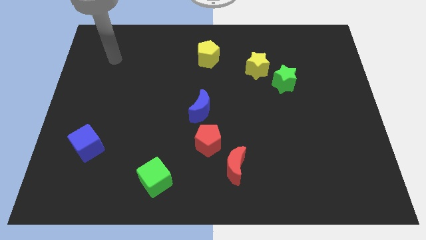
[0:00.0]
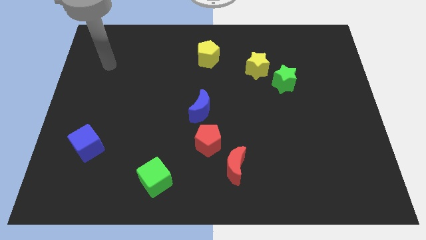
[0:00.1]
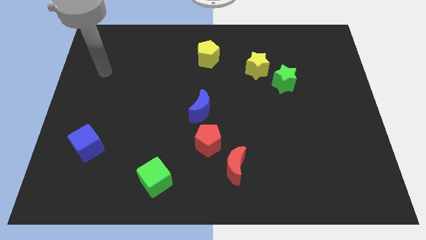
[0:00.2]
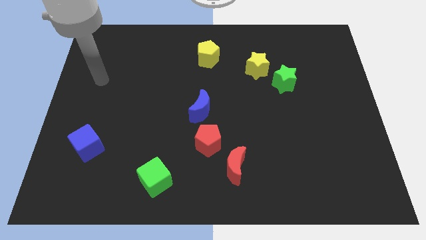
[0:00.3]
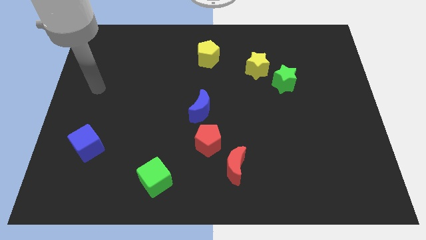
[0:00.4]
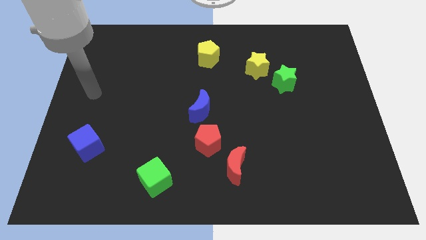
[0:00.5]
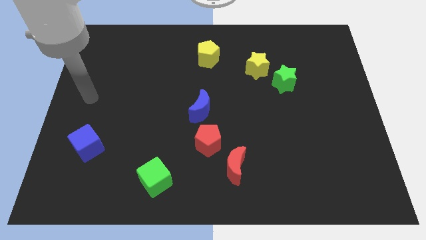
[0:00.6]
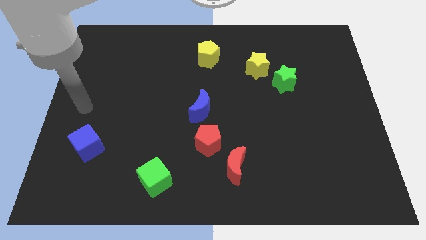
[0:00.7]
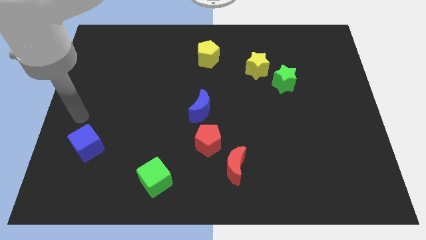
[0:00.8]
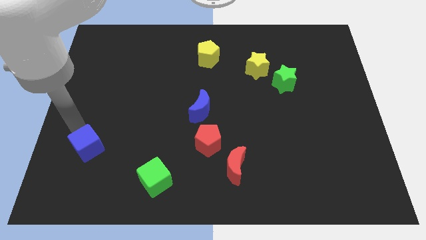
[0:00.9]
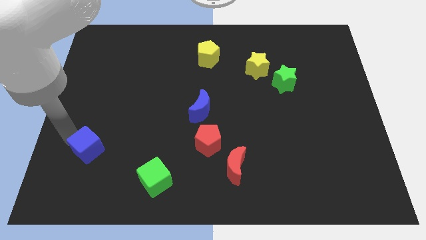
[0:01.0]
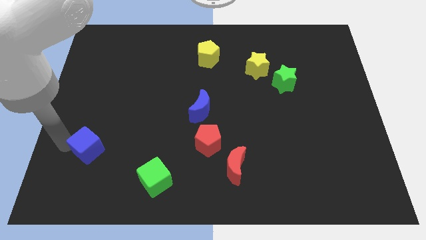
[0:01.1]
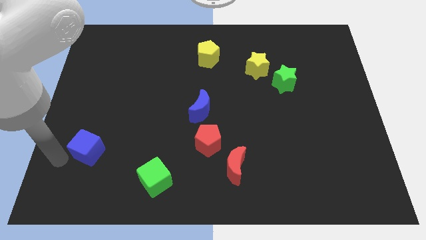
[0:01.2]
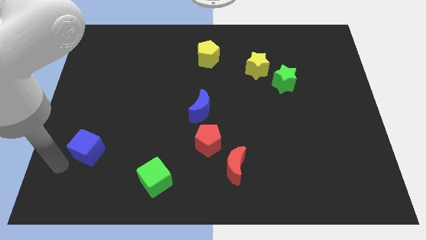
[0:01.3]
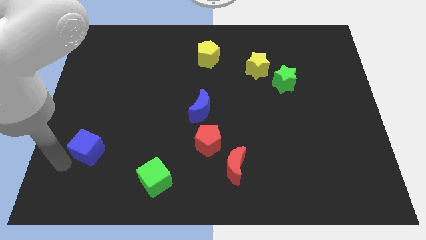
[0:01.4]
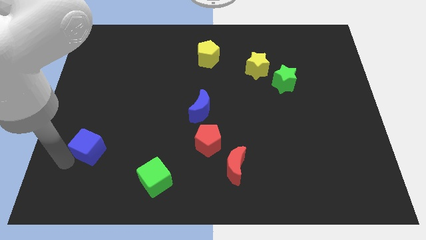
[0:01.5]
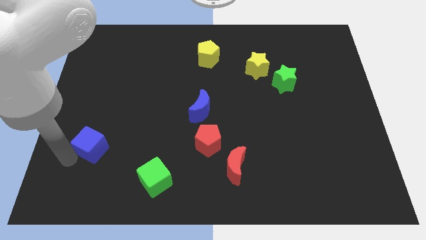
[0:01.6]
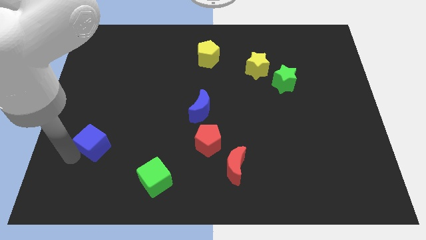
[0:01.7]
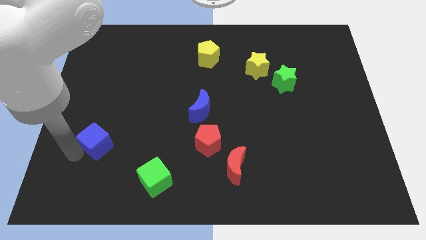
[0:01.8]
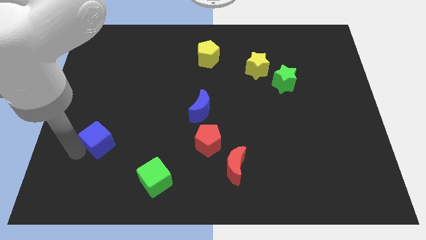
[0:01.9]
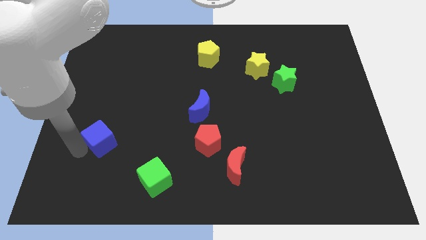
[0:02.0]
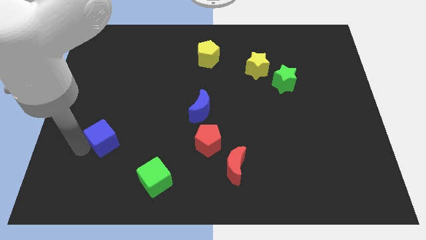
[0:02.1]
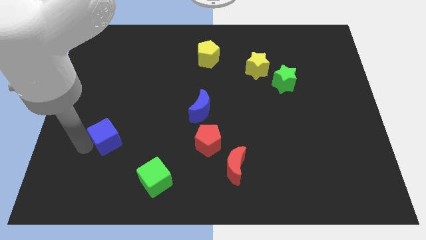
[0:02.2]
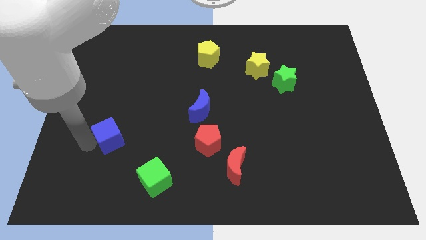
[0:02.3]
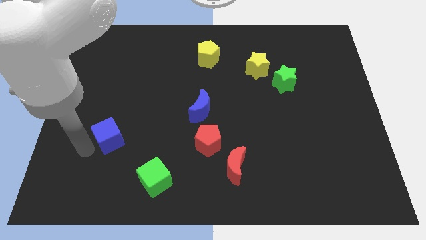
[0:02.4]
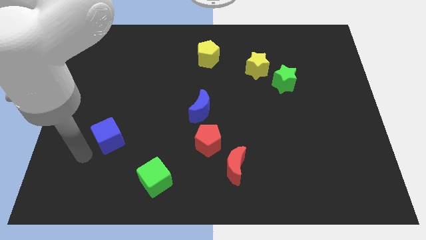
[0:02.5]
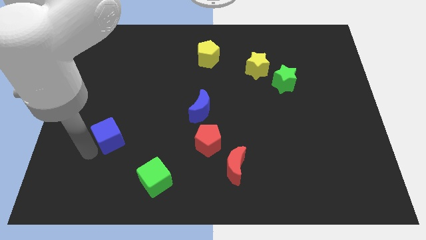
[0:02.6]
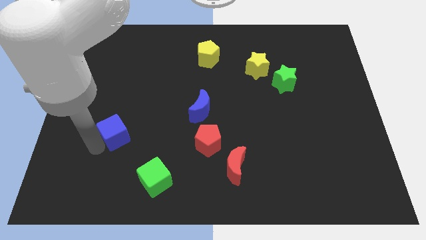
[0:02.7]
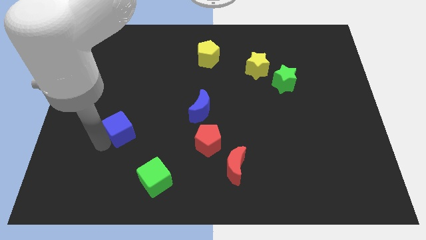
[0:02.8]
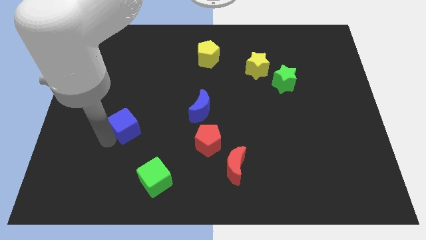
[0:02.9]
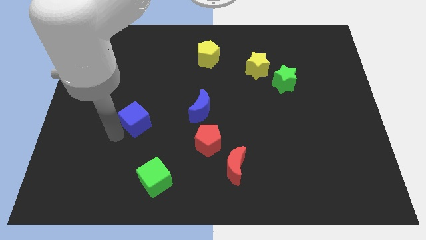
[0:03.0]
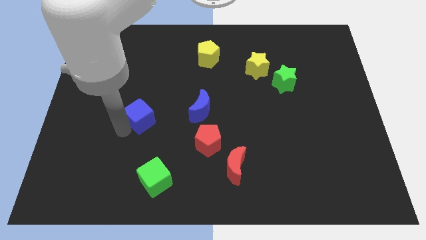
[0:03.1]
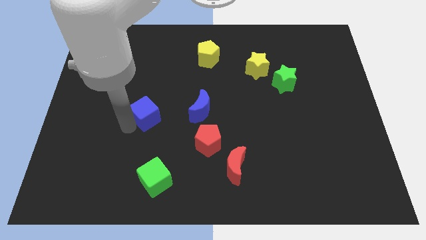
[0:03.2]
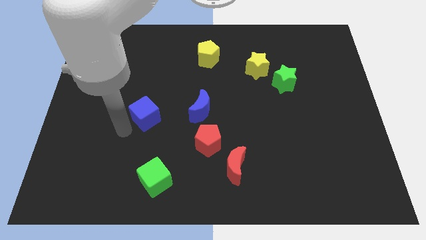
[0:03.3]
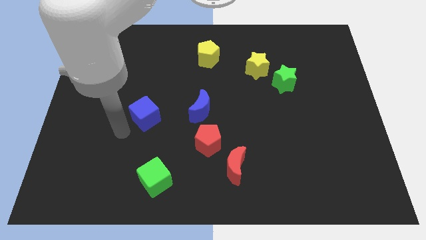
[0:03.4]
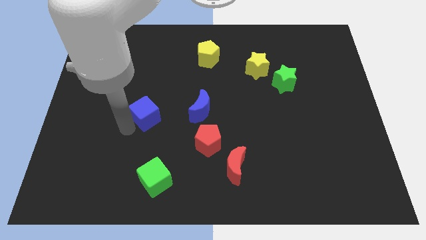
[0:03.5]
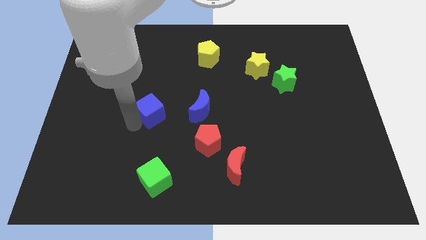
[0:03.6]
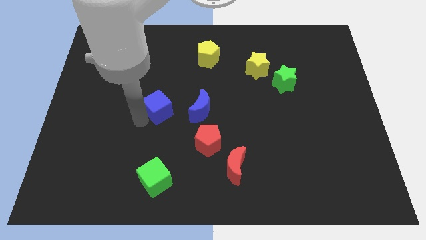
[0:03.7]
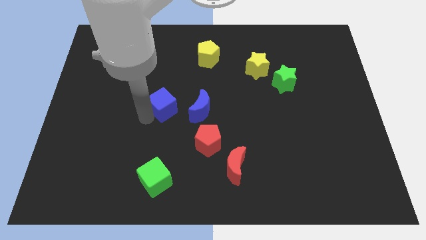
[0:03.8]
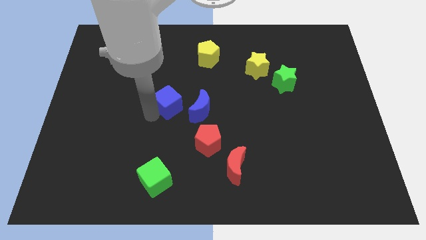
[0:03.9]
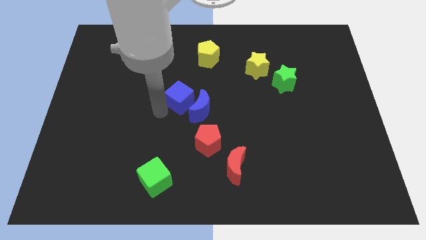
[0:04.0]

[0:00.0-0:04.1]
move the blue cube upwards and right diagonally

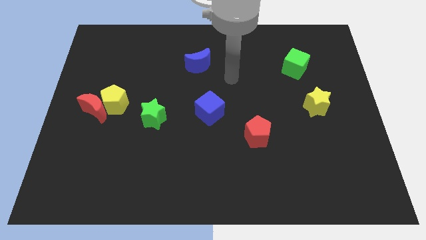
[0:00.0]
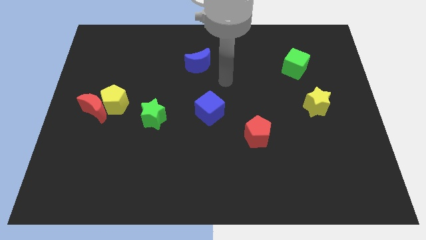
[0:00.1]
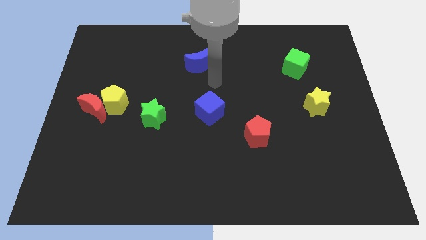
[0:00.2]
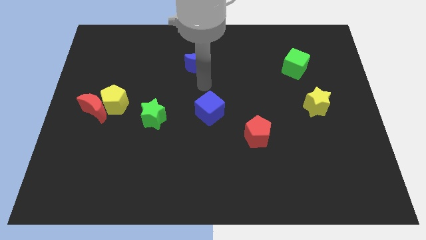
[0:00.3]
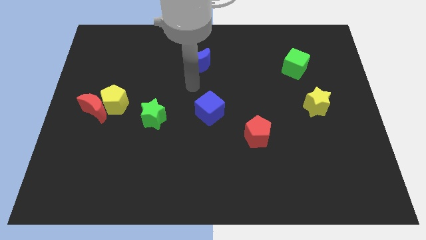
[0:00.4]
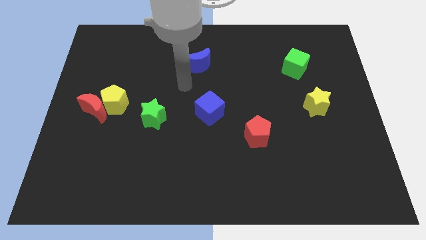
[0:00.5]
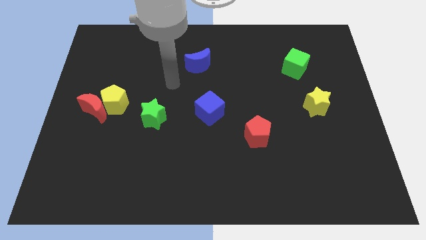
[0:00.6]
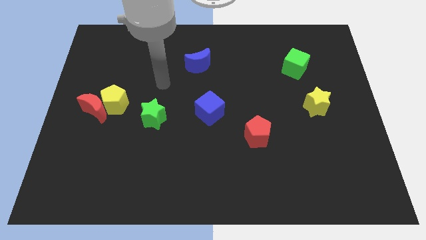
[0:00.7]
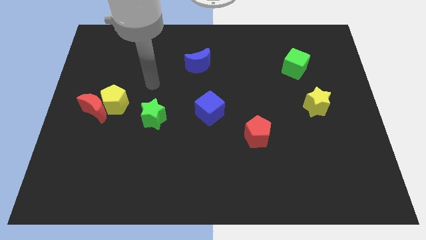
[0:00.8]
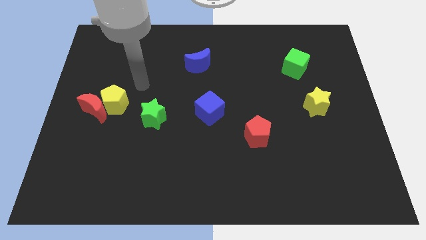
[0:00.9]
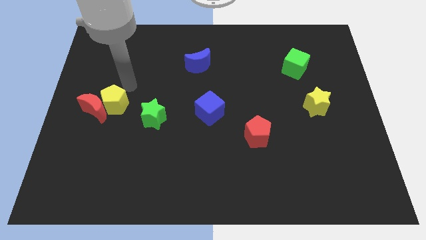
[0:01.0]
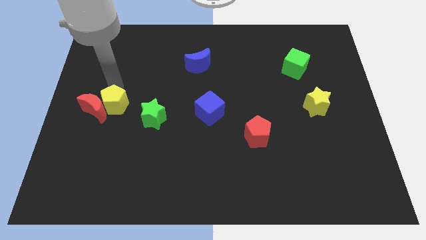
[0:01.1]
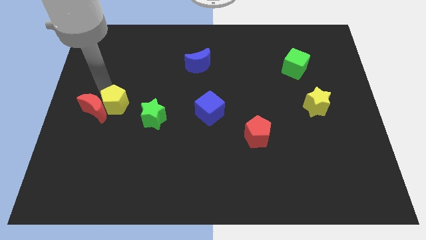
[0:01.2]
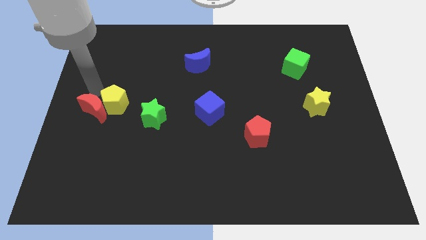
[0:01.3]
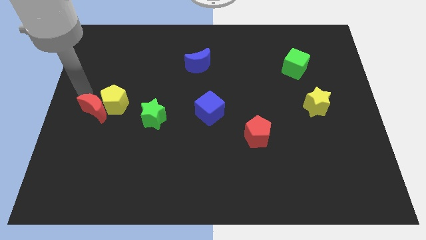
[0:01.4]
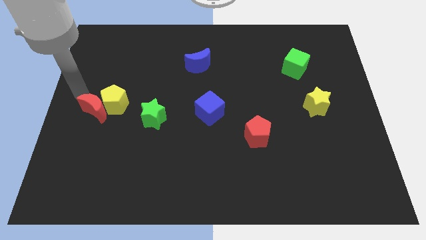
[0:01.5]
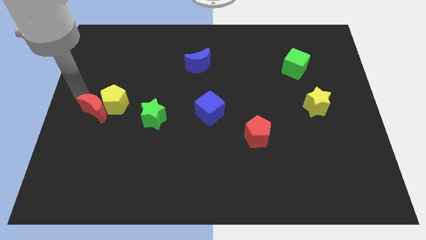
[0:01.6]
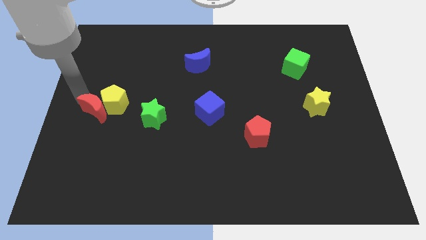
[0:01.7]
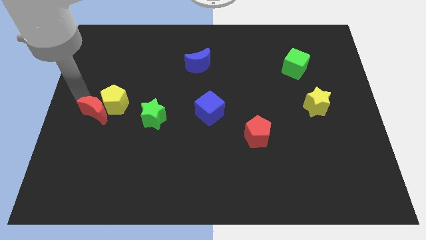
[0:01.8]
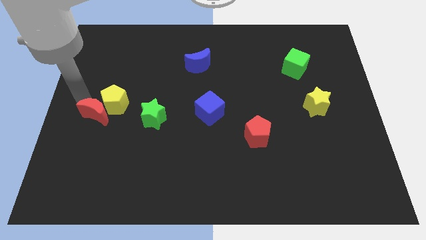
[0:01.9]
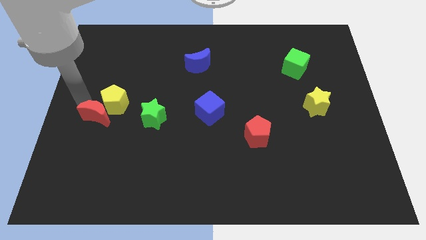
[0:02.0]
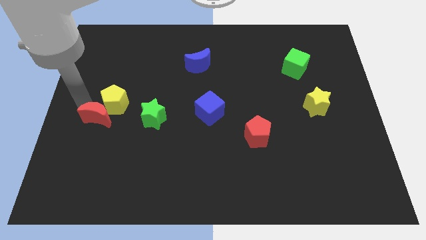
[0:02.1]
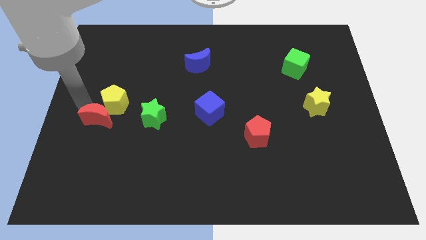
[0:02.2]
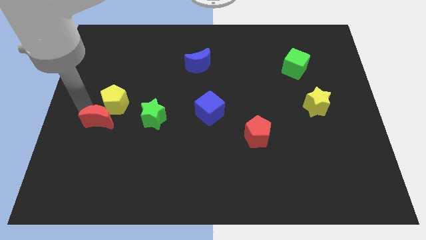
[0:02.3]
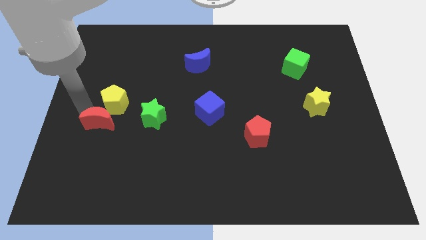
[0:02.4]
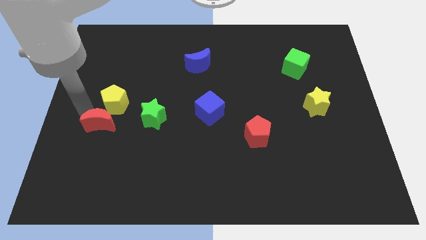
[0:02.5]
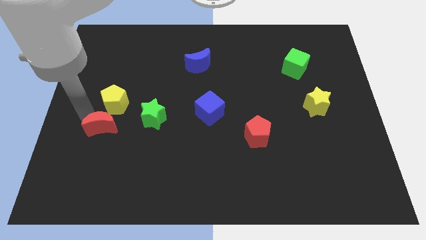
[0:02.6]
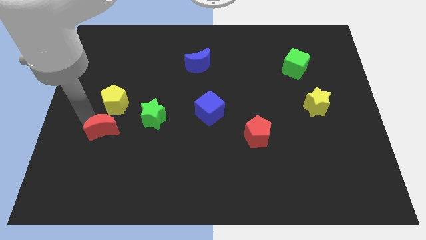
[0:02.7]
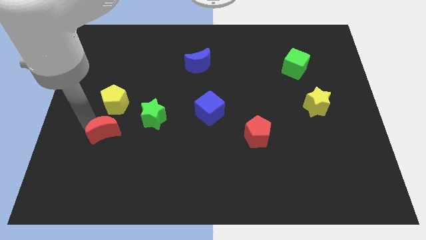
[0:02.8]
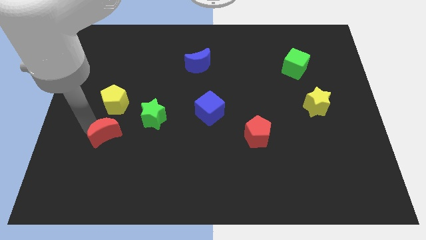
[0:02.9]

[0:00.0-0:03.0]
push the red moon downwards and to the right diagonally slightly

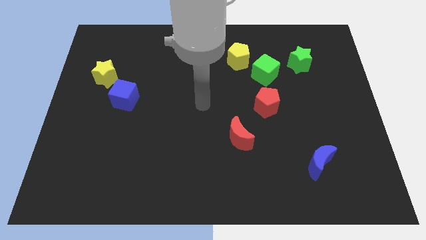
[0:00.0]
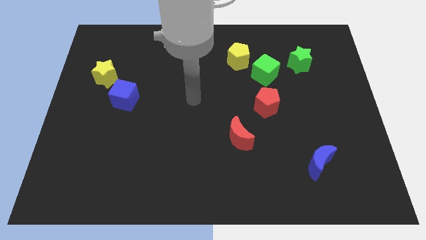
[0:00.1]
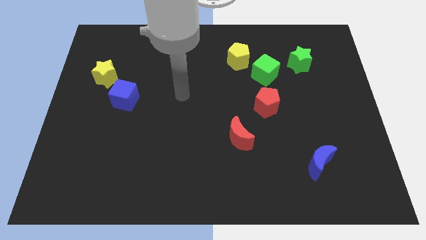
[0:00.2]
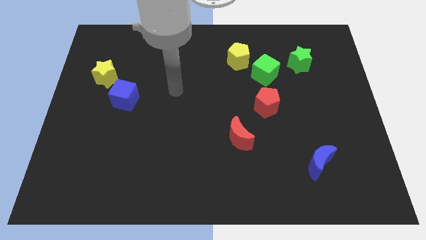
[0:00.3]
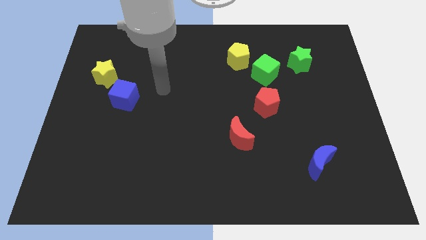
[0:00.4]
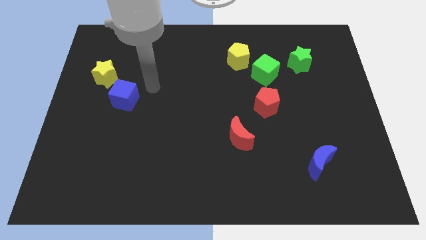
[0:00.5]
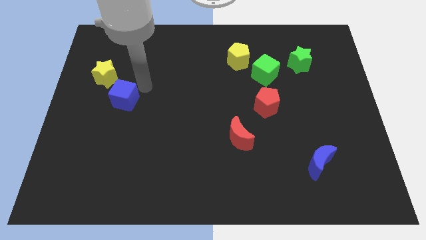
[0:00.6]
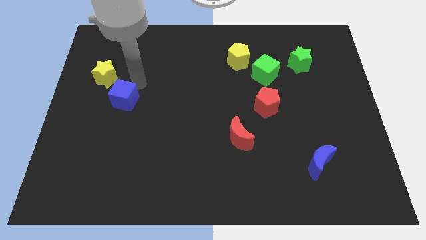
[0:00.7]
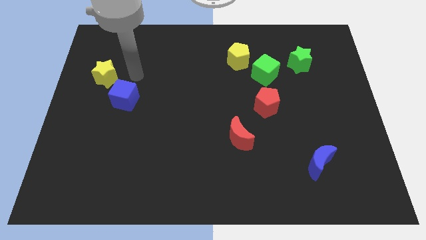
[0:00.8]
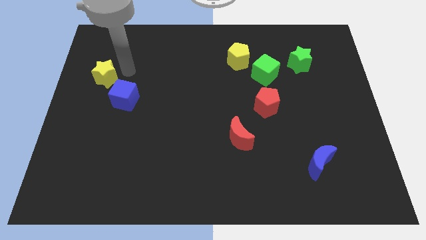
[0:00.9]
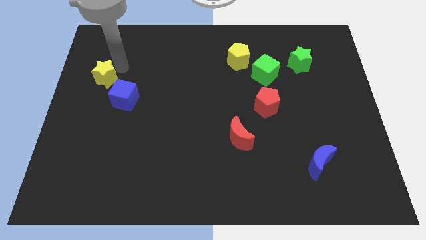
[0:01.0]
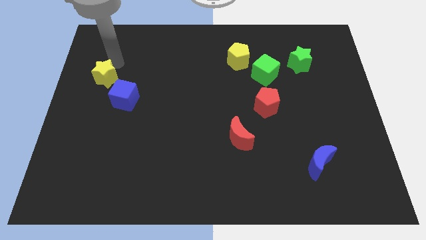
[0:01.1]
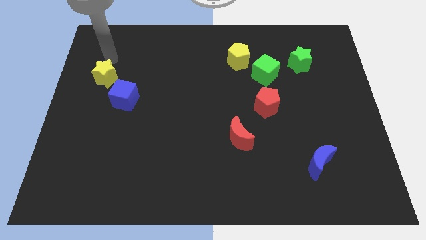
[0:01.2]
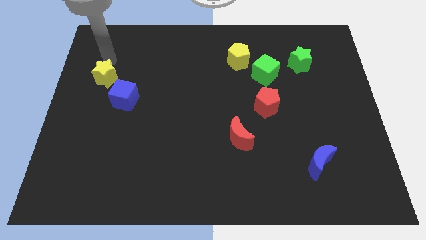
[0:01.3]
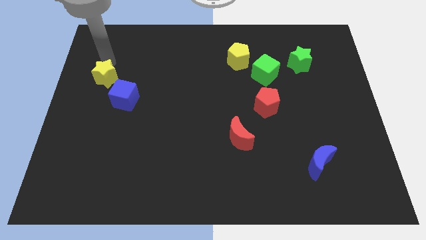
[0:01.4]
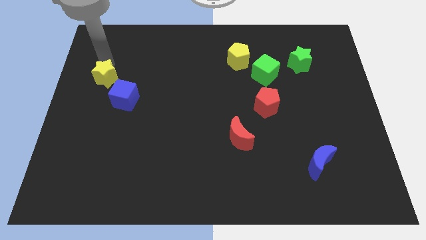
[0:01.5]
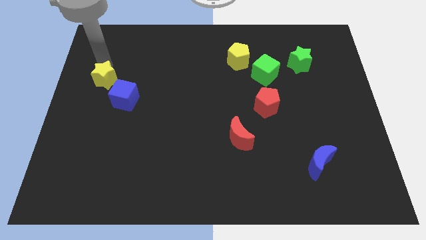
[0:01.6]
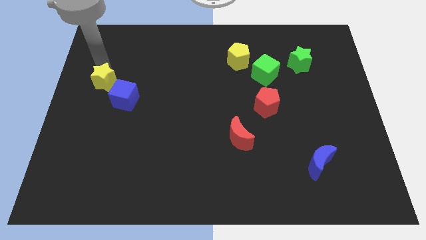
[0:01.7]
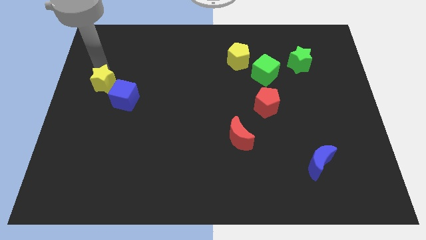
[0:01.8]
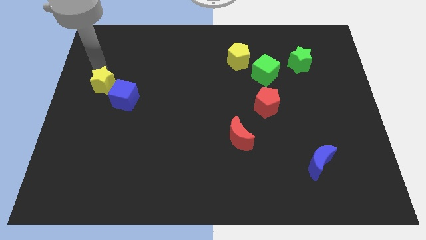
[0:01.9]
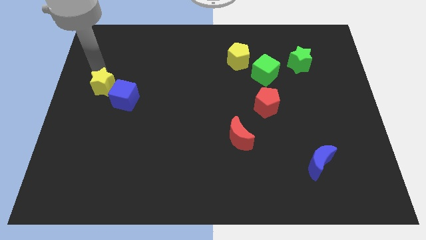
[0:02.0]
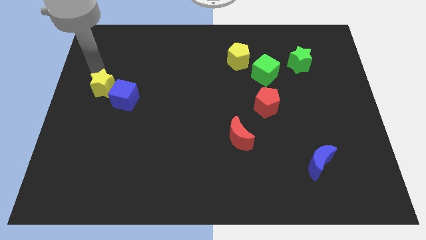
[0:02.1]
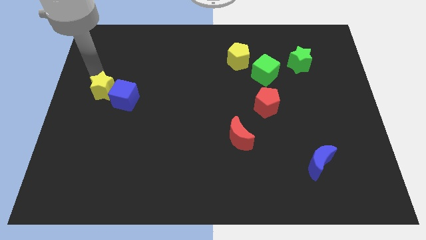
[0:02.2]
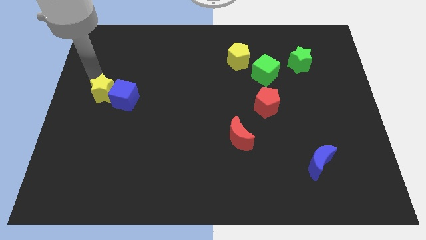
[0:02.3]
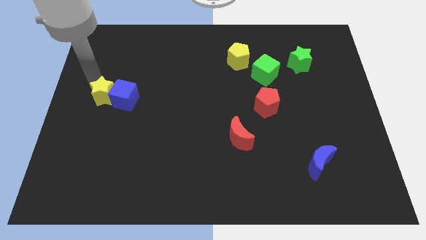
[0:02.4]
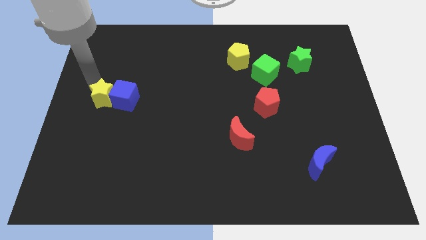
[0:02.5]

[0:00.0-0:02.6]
slightly slide the yellow star down
